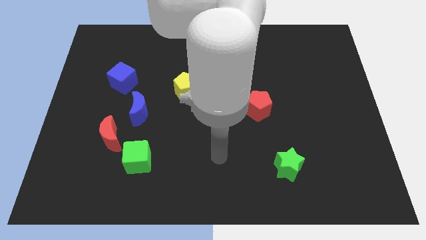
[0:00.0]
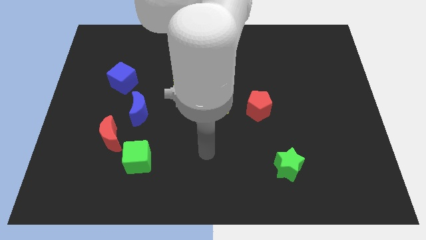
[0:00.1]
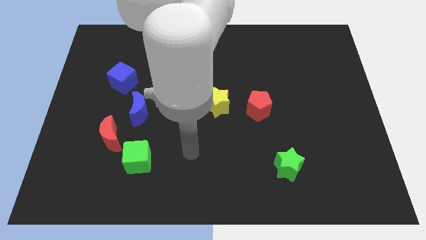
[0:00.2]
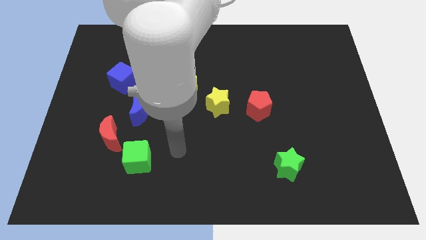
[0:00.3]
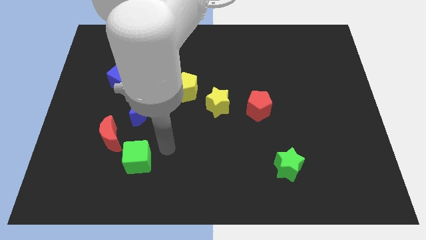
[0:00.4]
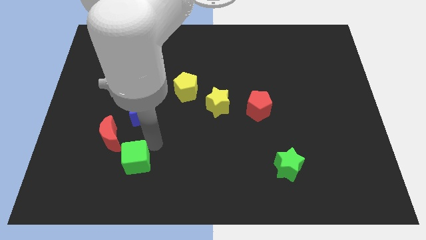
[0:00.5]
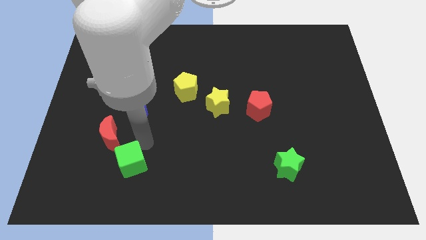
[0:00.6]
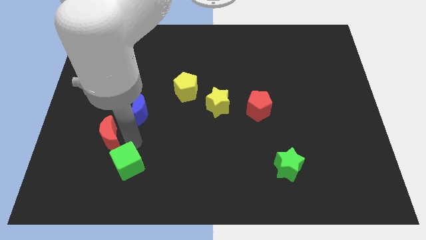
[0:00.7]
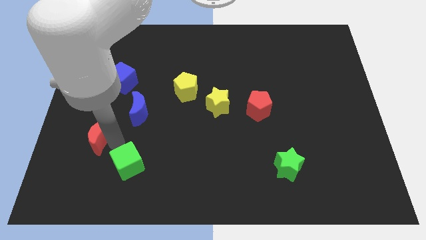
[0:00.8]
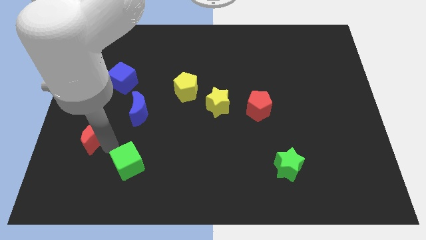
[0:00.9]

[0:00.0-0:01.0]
separate the green cube from the red moon

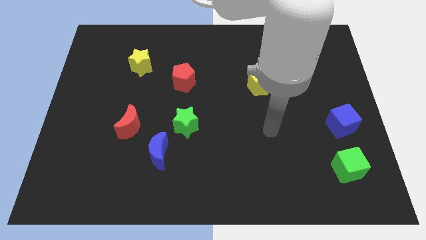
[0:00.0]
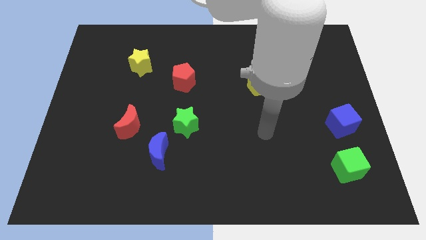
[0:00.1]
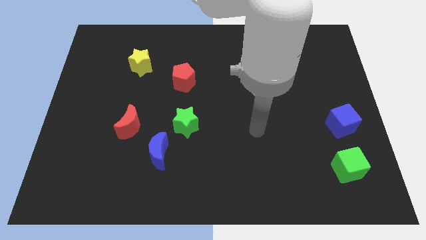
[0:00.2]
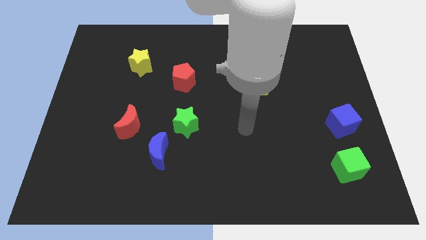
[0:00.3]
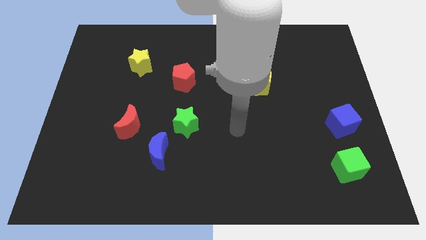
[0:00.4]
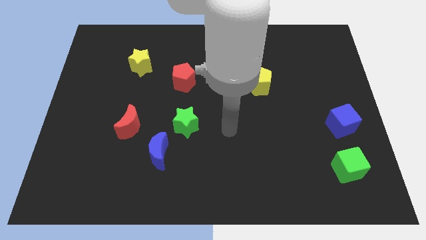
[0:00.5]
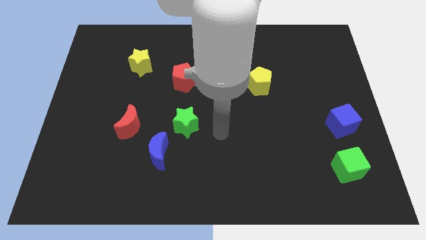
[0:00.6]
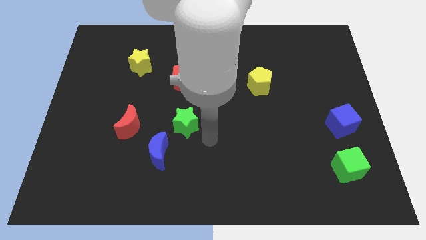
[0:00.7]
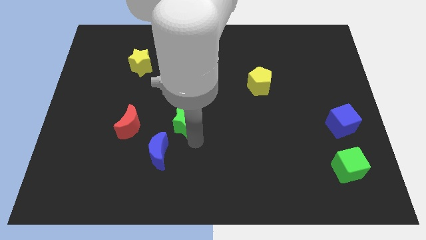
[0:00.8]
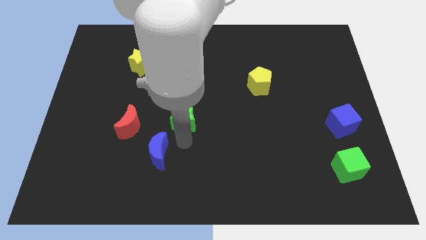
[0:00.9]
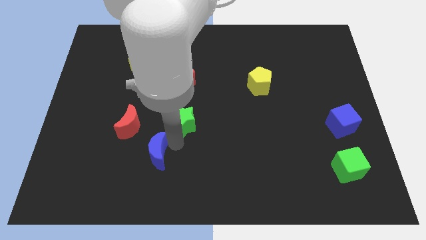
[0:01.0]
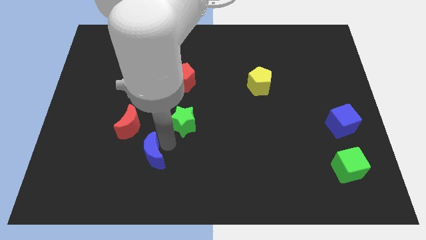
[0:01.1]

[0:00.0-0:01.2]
separate the green star from the blue moon

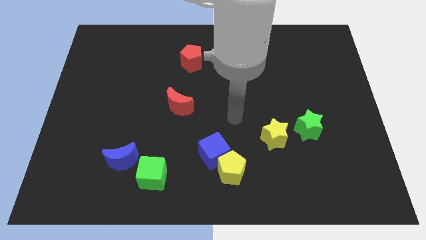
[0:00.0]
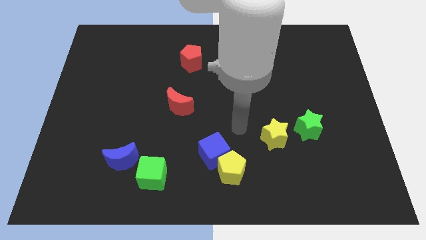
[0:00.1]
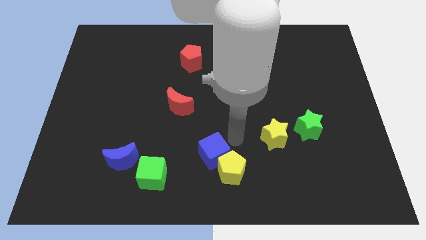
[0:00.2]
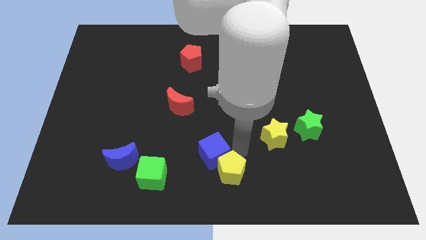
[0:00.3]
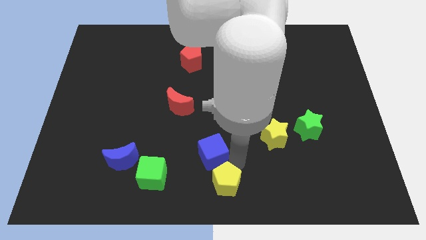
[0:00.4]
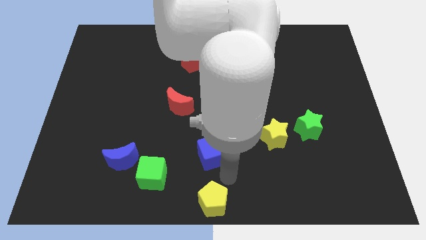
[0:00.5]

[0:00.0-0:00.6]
separate the blue cube from the yellow pentagon

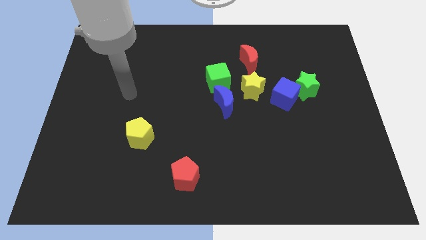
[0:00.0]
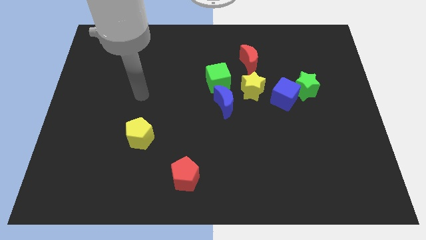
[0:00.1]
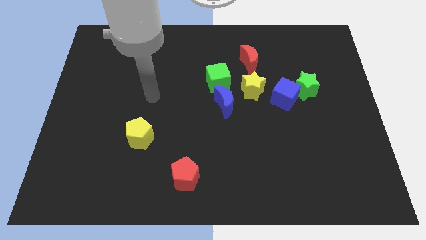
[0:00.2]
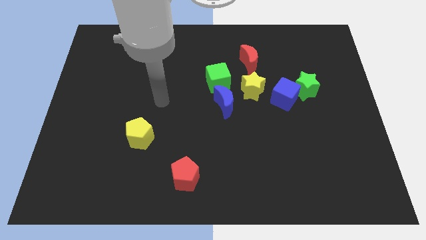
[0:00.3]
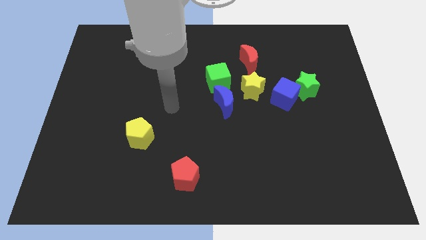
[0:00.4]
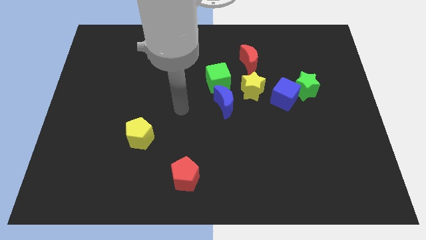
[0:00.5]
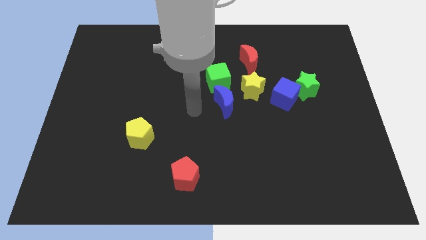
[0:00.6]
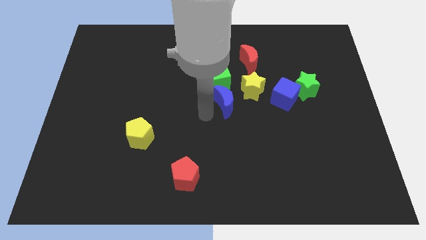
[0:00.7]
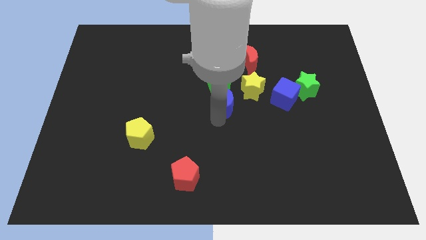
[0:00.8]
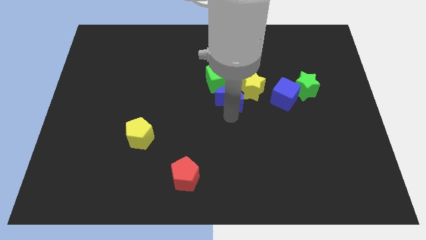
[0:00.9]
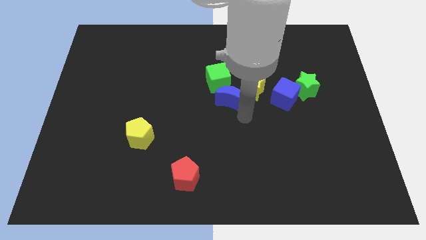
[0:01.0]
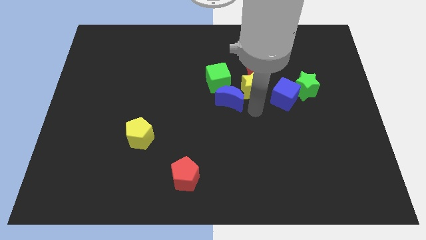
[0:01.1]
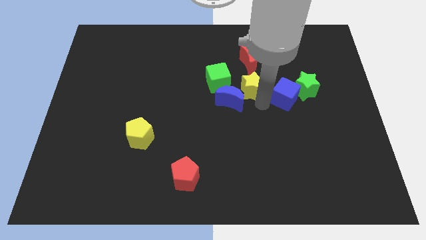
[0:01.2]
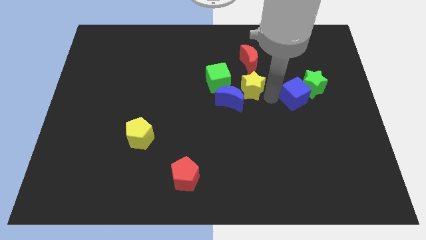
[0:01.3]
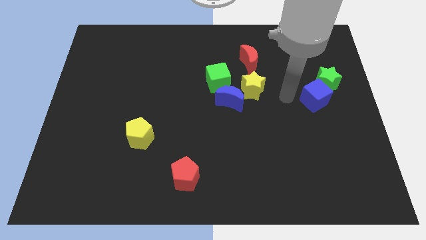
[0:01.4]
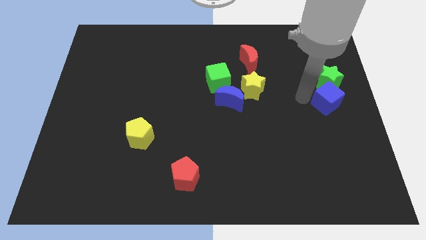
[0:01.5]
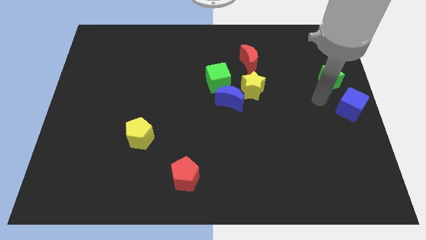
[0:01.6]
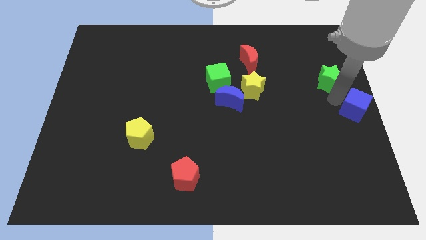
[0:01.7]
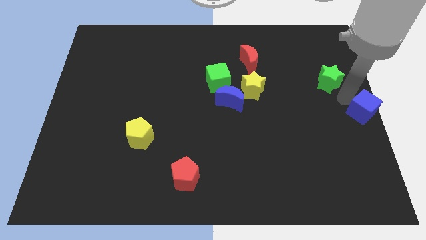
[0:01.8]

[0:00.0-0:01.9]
pull the green star apart from the blue cube

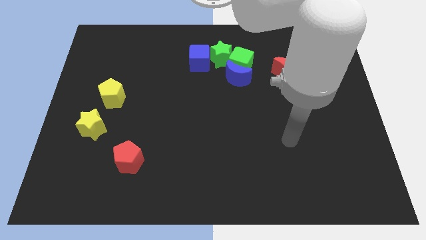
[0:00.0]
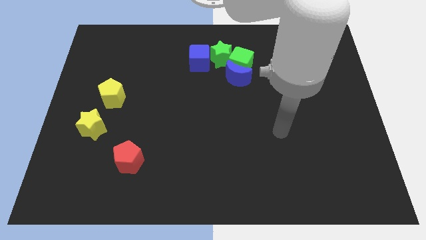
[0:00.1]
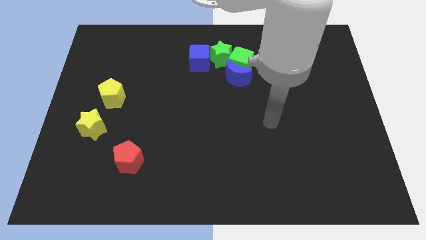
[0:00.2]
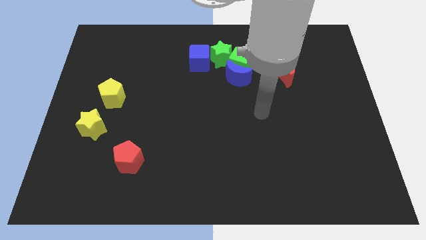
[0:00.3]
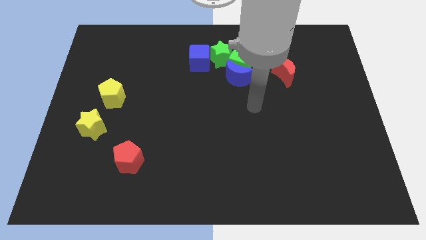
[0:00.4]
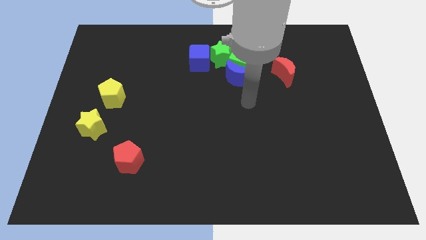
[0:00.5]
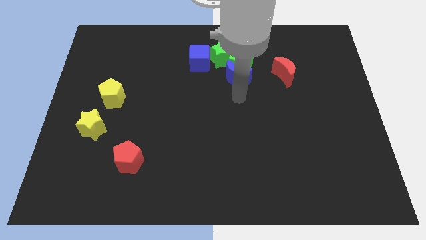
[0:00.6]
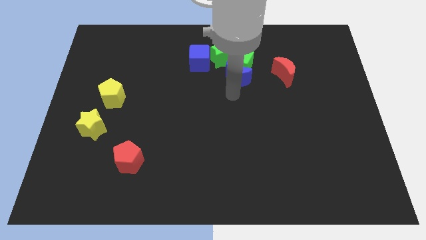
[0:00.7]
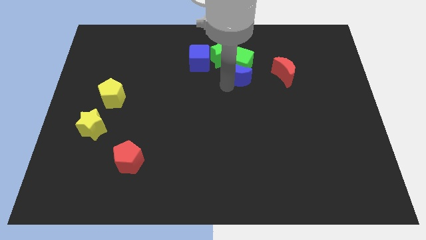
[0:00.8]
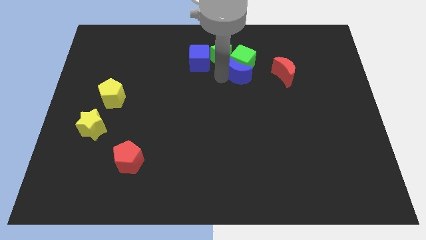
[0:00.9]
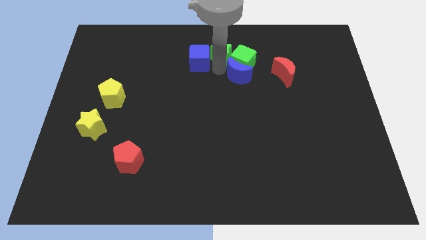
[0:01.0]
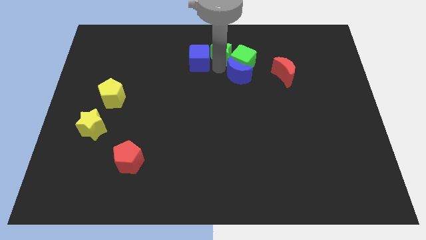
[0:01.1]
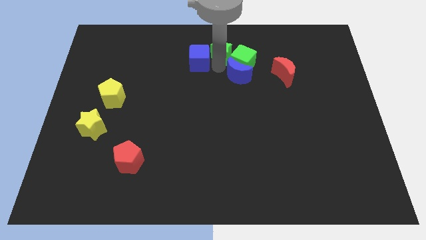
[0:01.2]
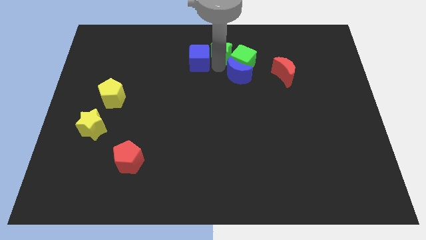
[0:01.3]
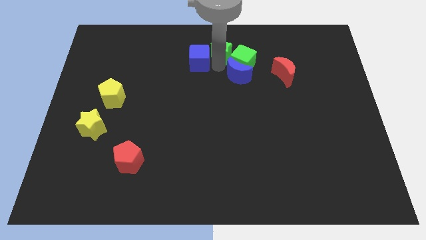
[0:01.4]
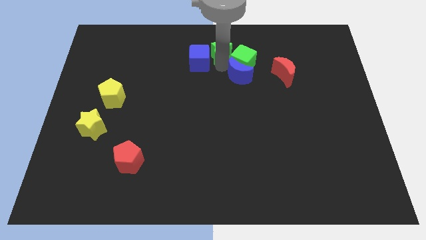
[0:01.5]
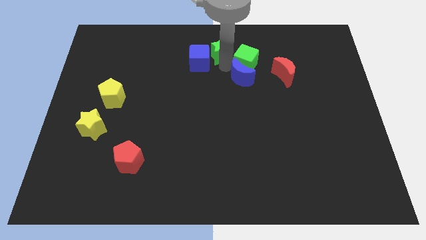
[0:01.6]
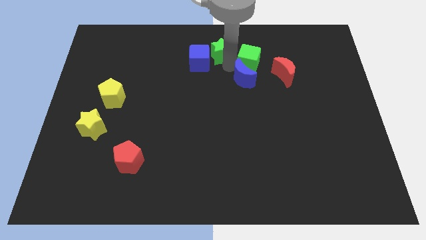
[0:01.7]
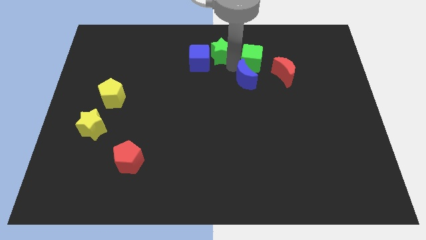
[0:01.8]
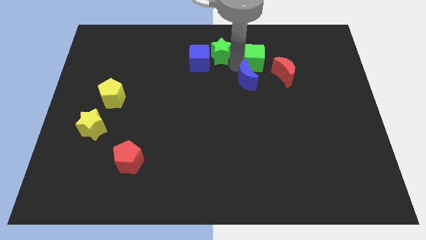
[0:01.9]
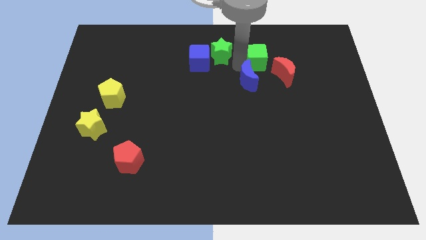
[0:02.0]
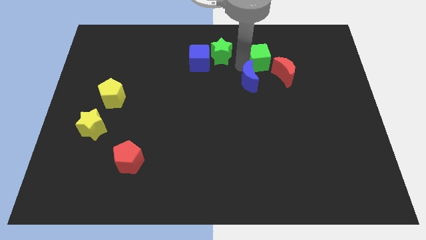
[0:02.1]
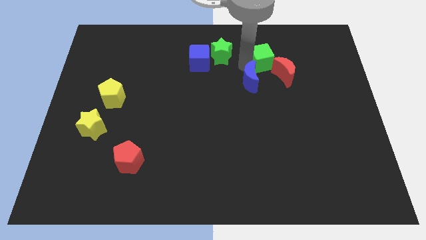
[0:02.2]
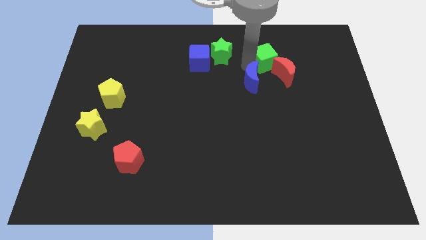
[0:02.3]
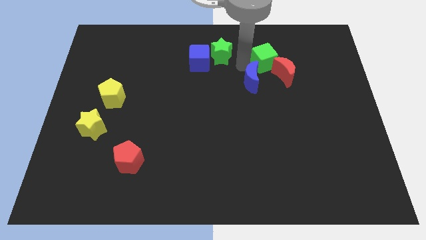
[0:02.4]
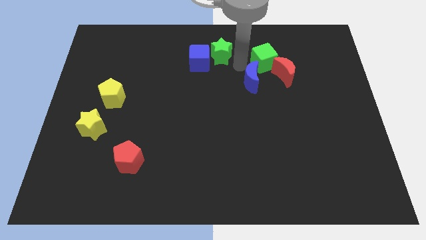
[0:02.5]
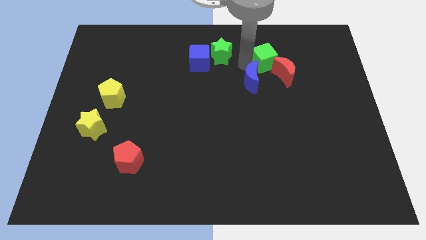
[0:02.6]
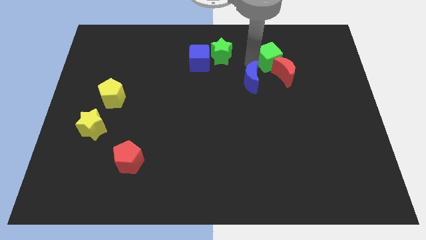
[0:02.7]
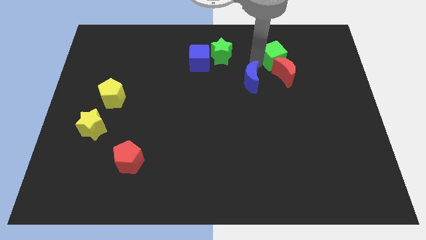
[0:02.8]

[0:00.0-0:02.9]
separate the green cube from the blue moon and green star

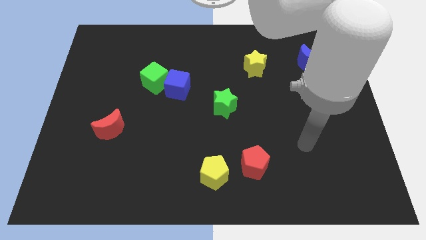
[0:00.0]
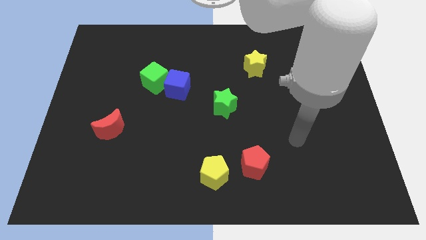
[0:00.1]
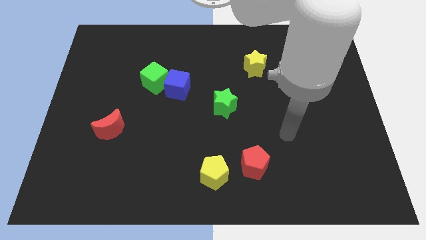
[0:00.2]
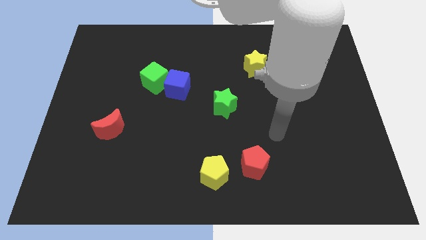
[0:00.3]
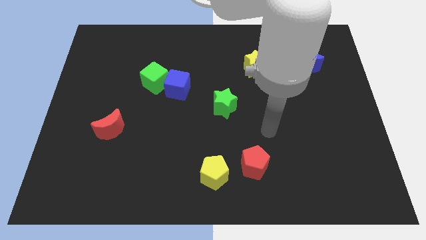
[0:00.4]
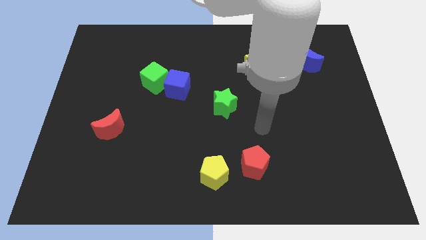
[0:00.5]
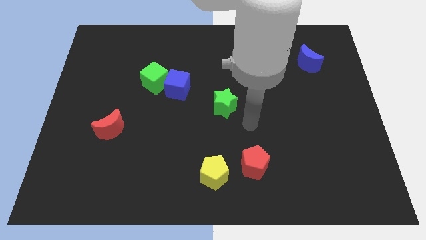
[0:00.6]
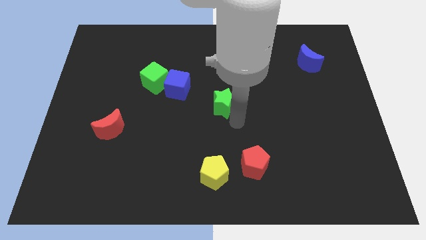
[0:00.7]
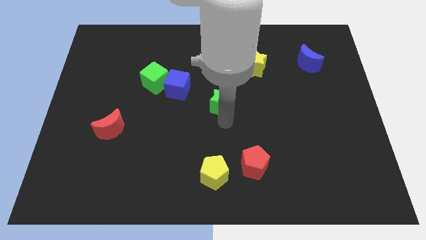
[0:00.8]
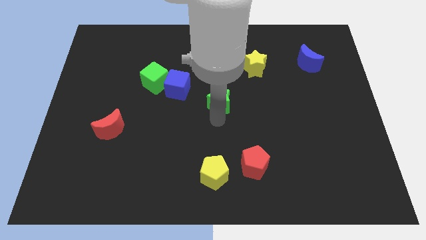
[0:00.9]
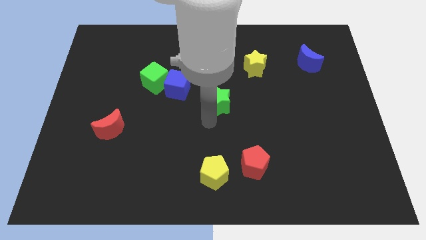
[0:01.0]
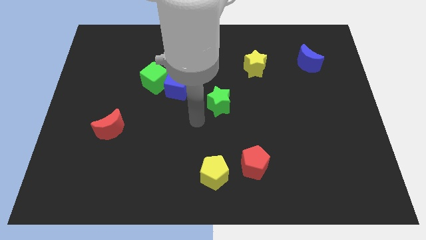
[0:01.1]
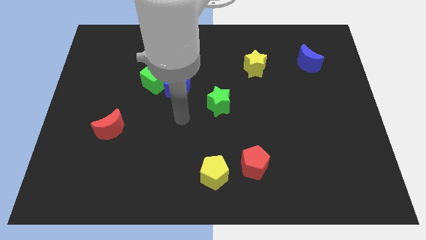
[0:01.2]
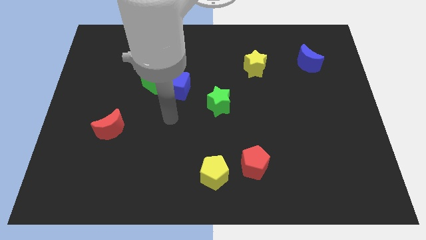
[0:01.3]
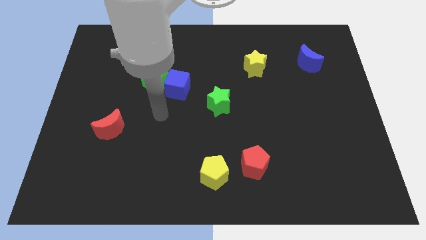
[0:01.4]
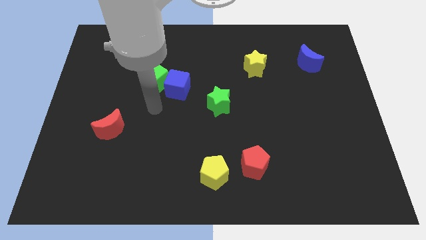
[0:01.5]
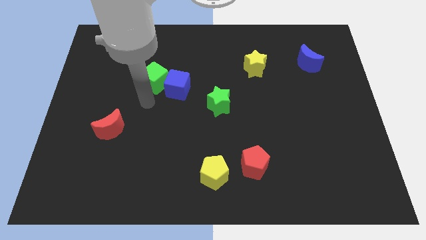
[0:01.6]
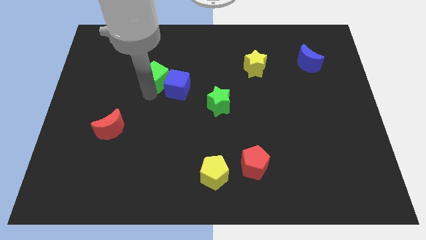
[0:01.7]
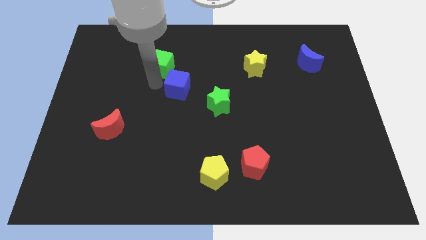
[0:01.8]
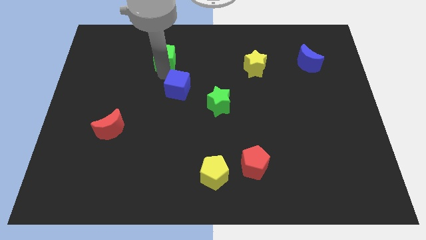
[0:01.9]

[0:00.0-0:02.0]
pull the blue cube apart from the green cube
